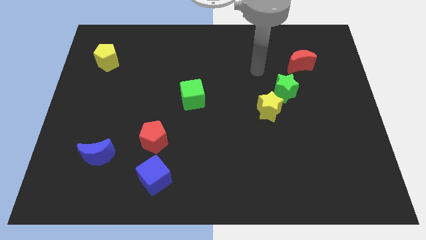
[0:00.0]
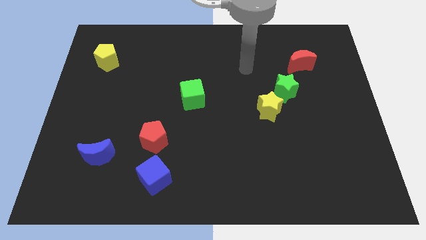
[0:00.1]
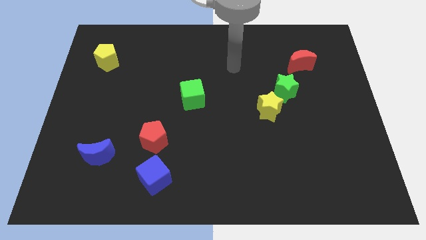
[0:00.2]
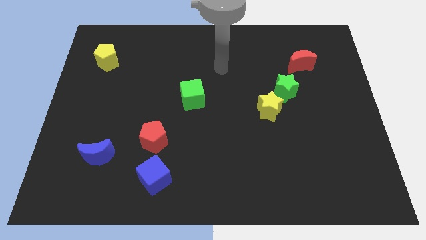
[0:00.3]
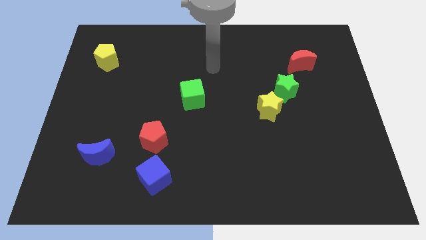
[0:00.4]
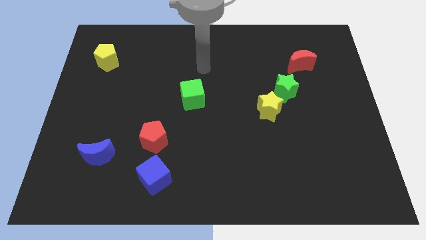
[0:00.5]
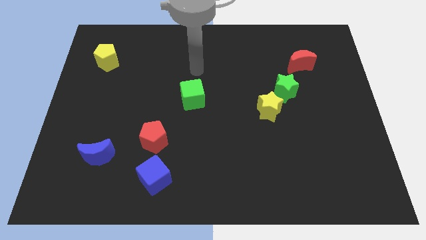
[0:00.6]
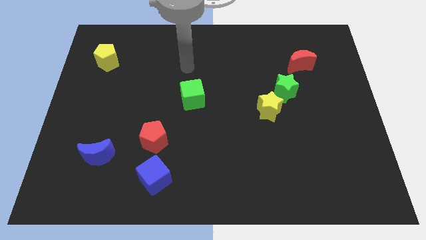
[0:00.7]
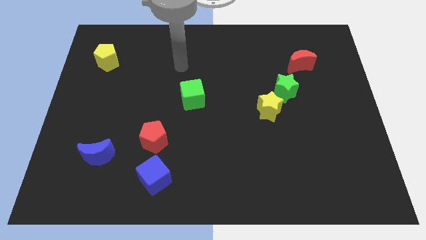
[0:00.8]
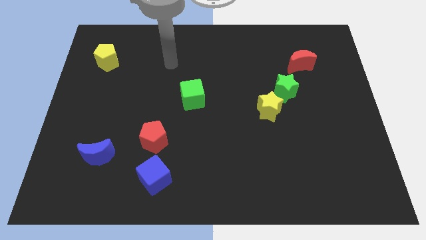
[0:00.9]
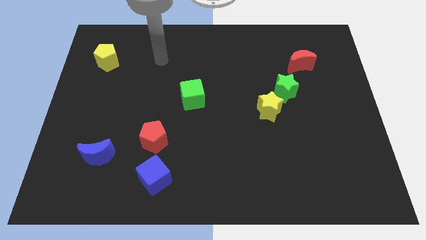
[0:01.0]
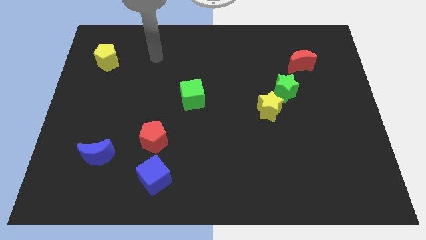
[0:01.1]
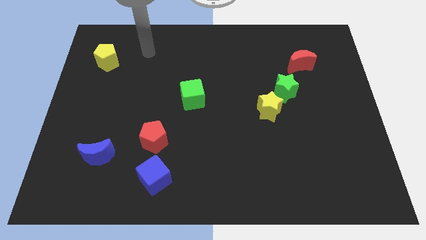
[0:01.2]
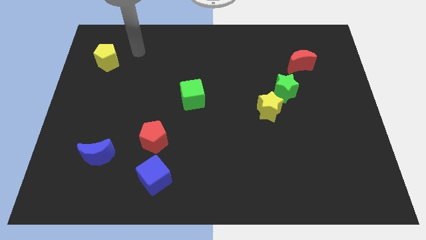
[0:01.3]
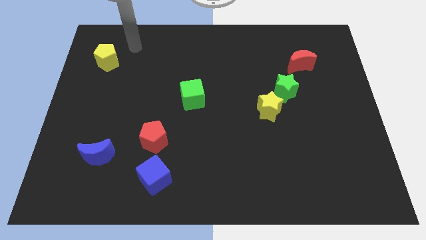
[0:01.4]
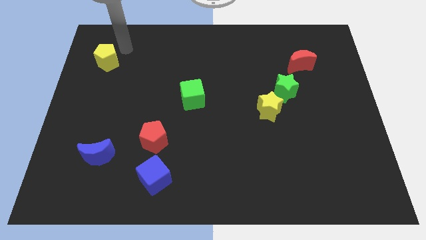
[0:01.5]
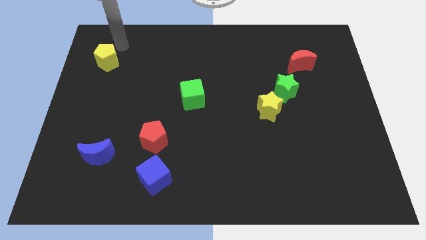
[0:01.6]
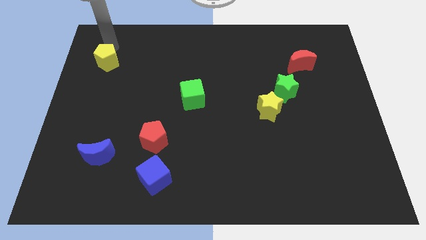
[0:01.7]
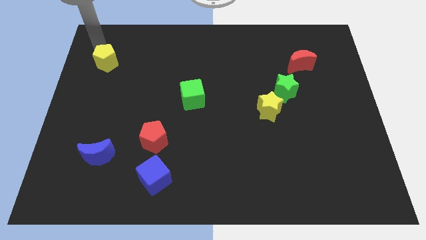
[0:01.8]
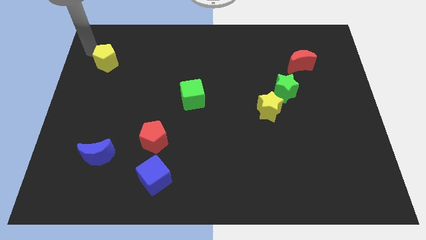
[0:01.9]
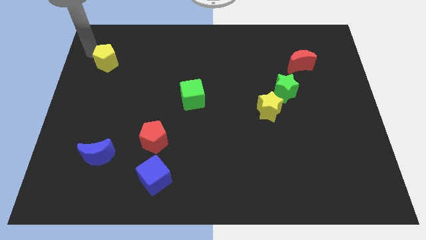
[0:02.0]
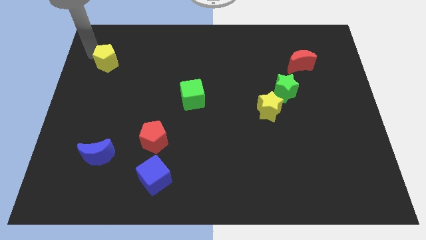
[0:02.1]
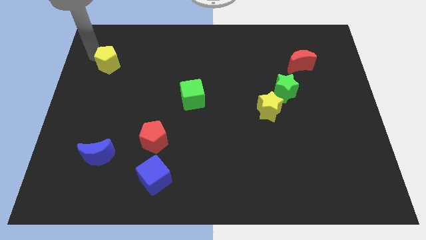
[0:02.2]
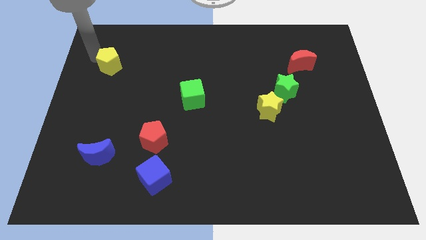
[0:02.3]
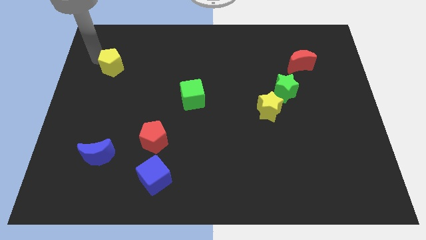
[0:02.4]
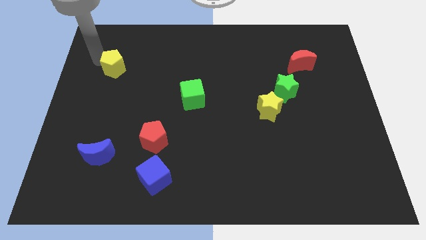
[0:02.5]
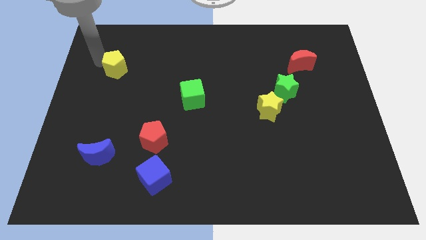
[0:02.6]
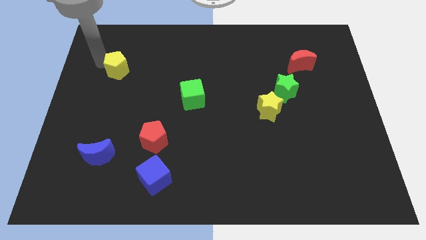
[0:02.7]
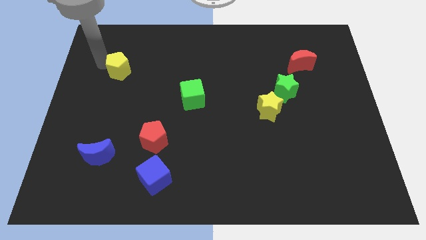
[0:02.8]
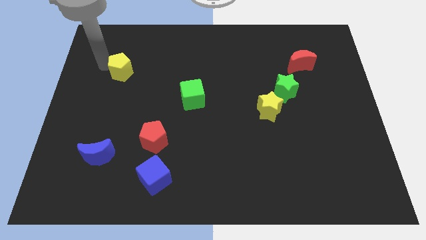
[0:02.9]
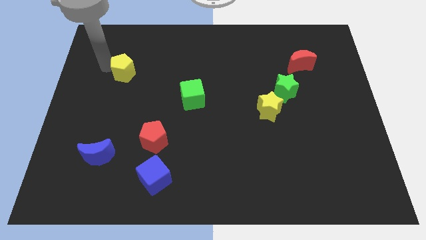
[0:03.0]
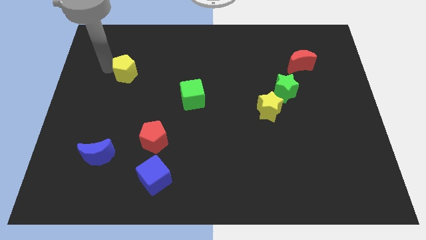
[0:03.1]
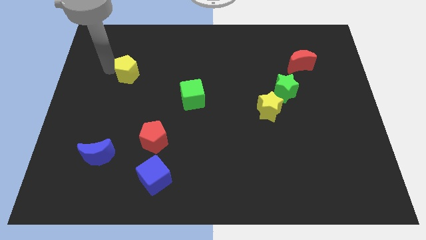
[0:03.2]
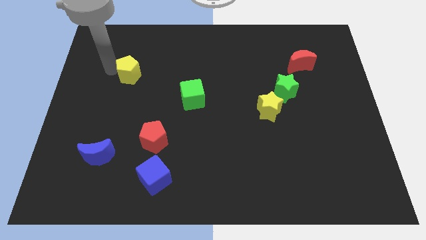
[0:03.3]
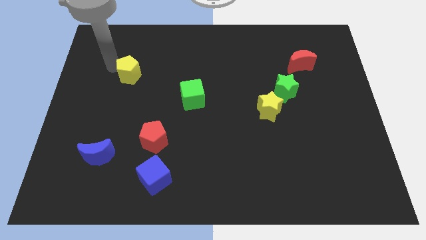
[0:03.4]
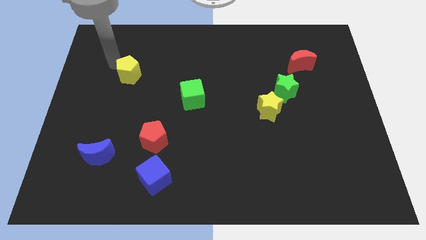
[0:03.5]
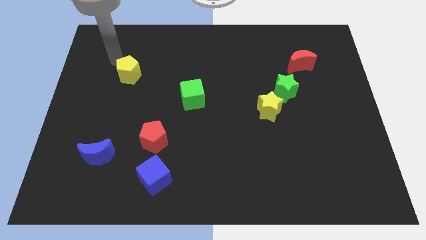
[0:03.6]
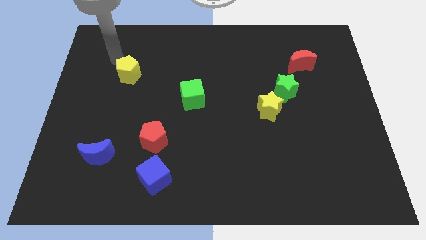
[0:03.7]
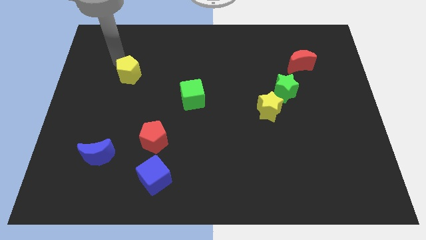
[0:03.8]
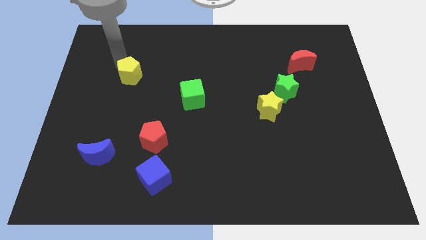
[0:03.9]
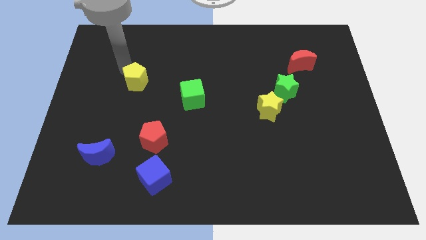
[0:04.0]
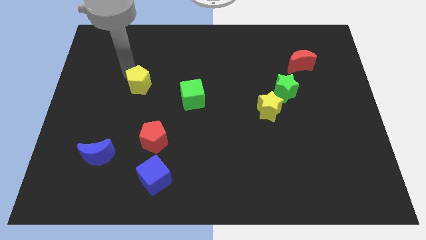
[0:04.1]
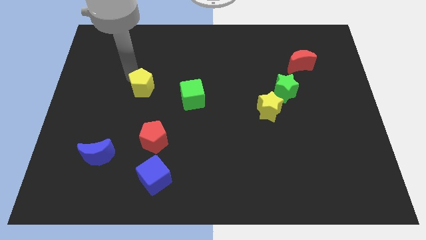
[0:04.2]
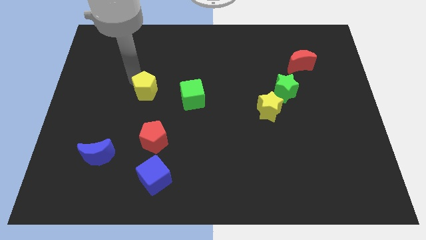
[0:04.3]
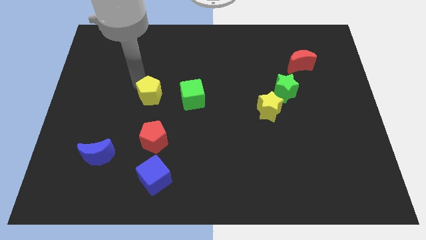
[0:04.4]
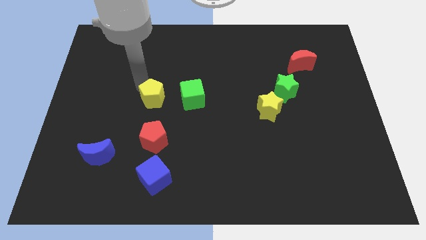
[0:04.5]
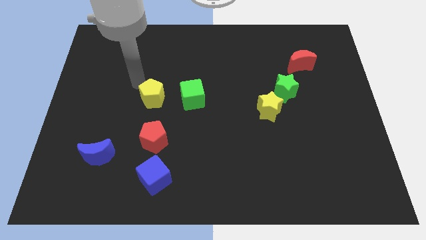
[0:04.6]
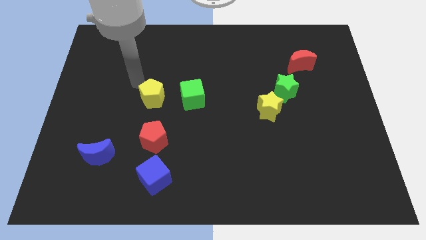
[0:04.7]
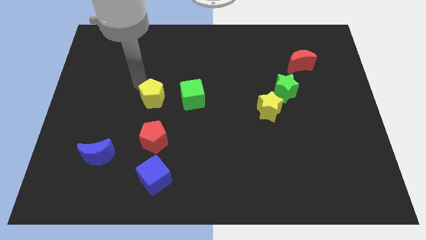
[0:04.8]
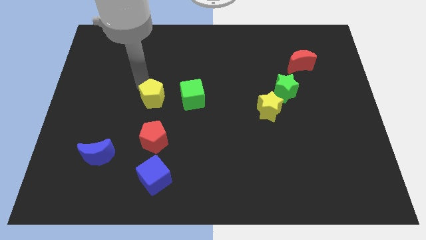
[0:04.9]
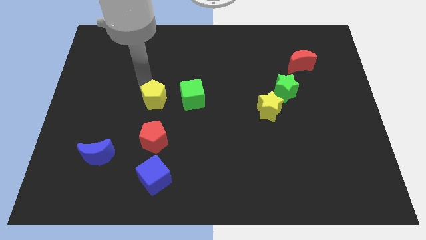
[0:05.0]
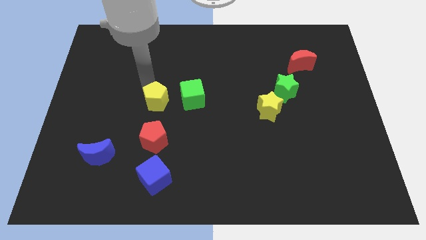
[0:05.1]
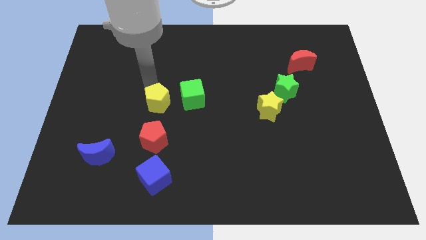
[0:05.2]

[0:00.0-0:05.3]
move the yellow pentagon diagonally down and to the right

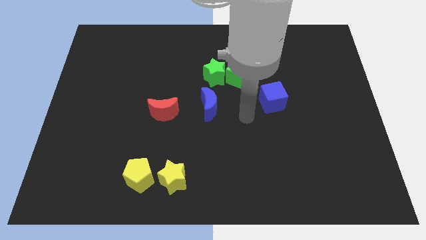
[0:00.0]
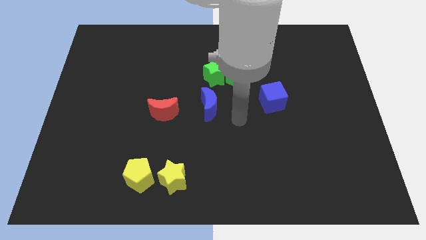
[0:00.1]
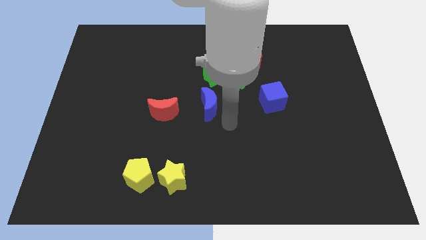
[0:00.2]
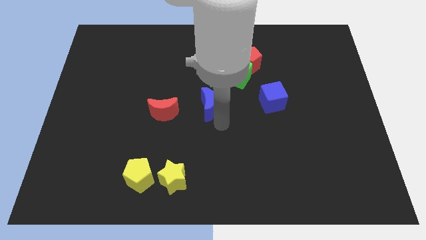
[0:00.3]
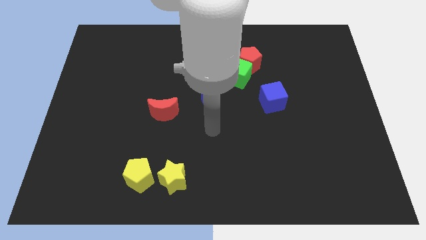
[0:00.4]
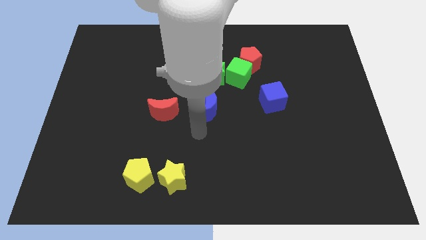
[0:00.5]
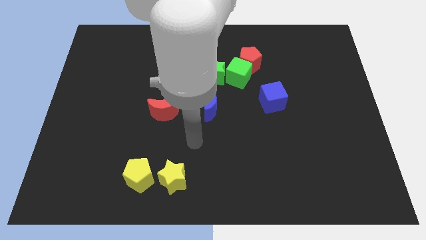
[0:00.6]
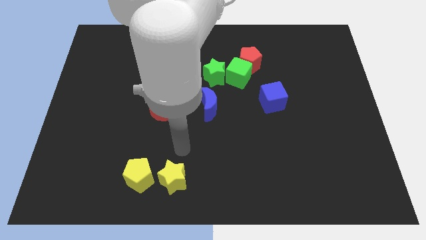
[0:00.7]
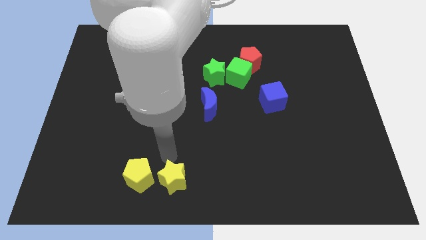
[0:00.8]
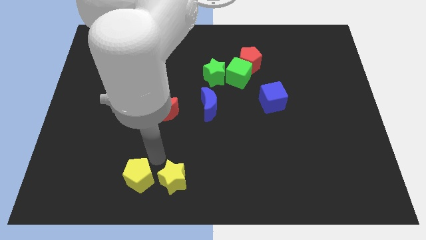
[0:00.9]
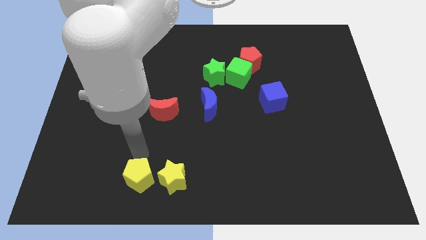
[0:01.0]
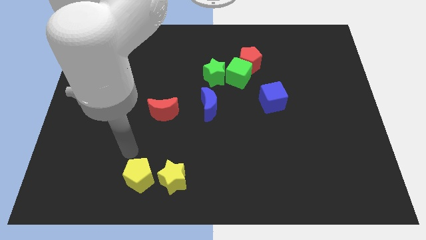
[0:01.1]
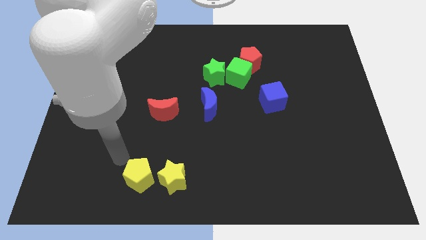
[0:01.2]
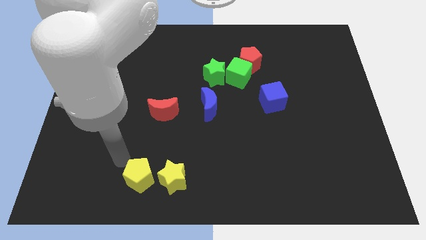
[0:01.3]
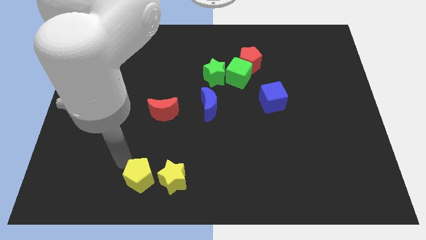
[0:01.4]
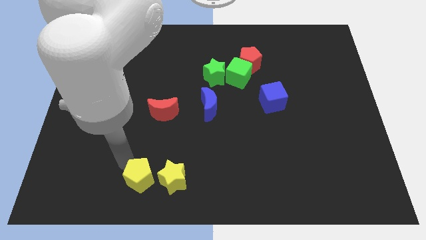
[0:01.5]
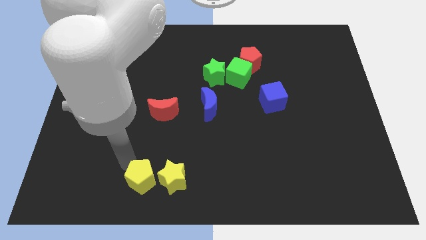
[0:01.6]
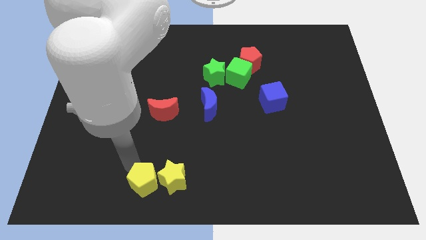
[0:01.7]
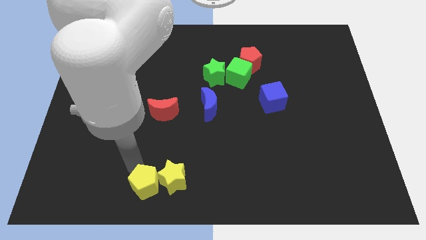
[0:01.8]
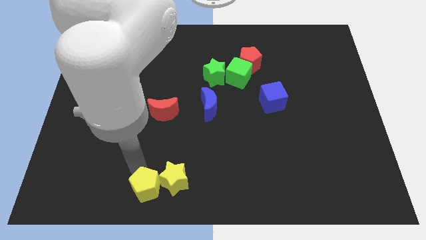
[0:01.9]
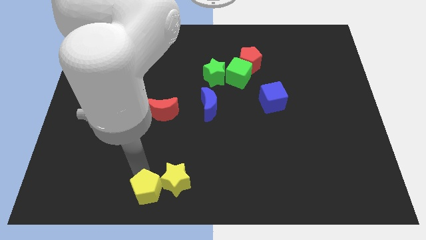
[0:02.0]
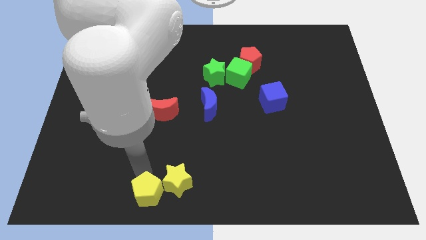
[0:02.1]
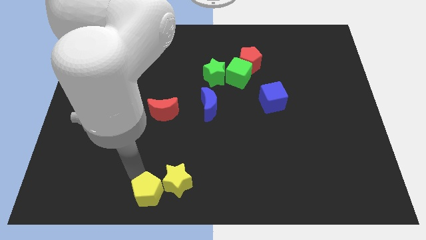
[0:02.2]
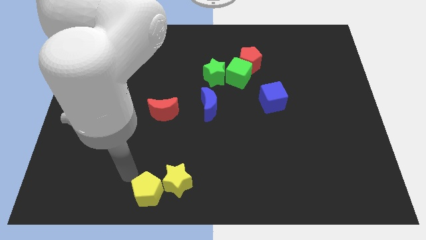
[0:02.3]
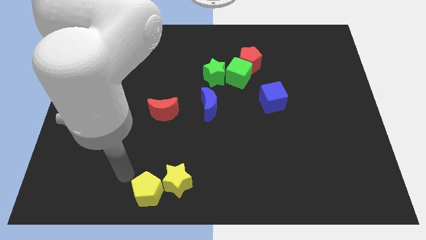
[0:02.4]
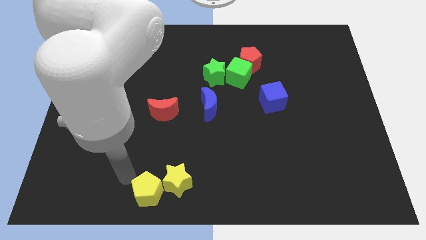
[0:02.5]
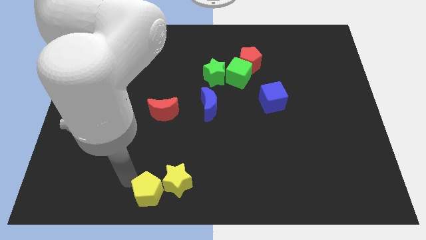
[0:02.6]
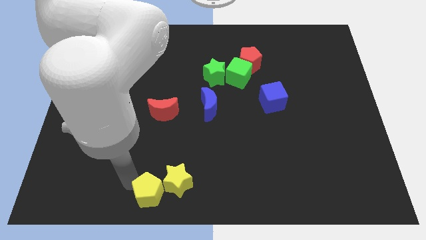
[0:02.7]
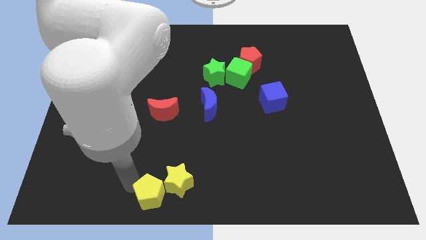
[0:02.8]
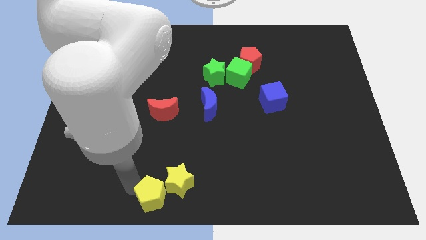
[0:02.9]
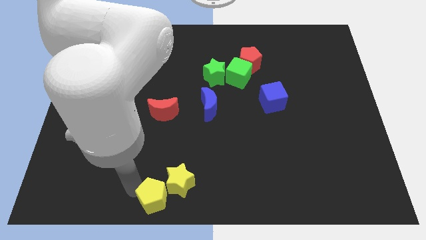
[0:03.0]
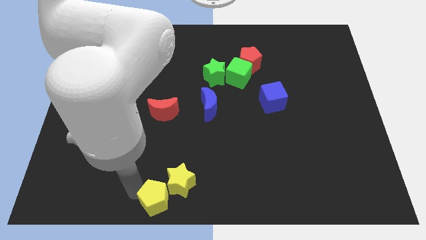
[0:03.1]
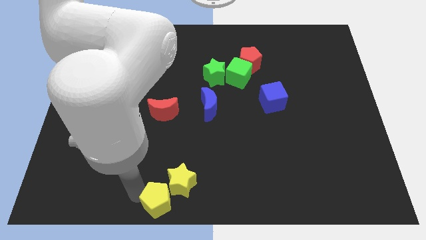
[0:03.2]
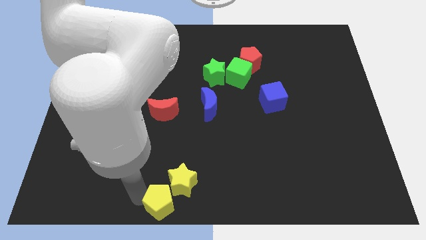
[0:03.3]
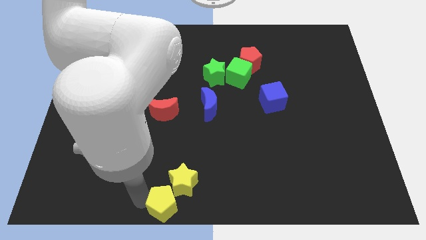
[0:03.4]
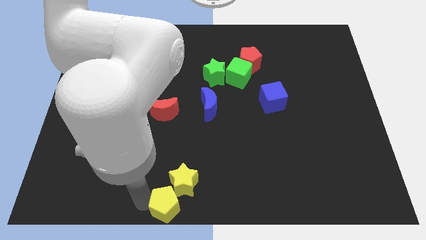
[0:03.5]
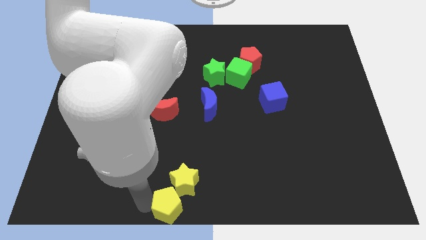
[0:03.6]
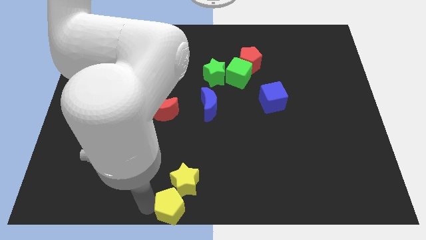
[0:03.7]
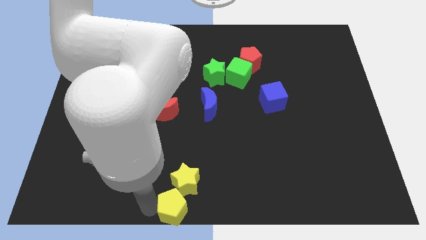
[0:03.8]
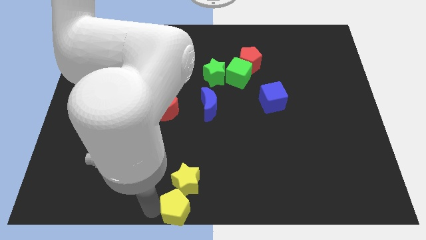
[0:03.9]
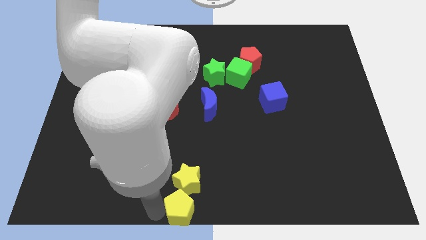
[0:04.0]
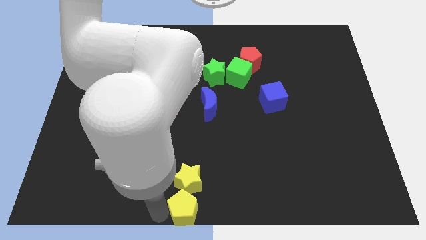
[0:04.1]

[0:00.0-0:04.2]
push the yellow pentagon right a bit
